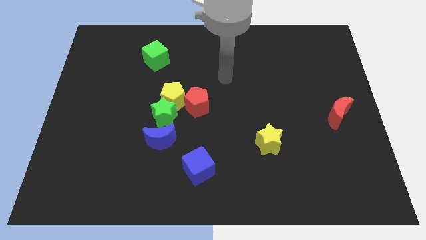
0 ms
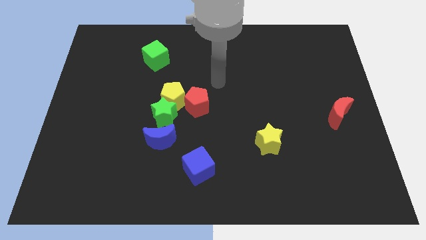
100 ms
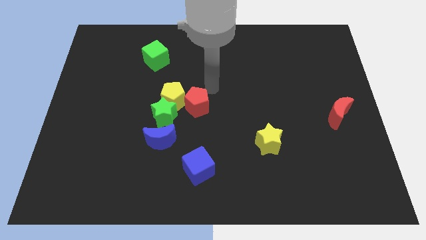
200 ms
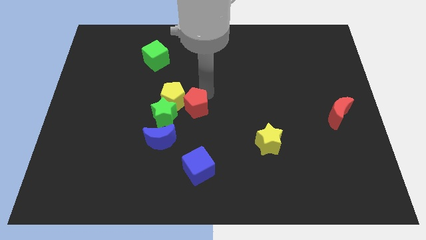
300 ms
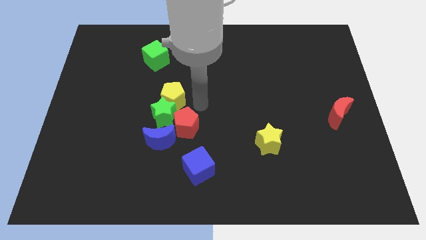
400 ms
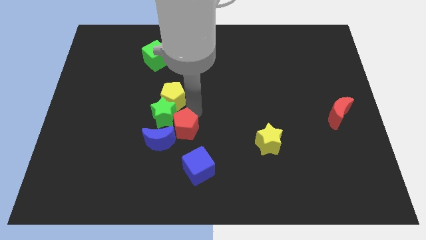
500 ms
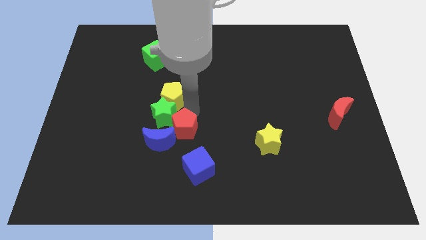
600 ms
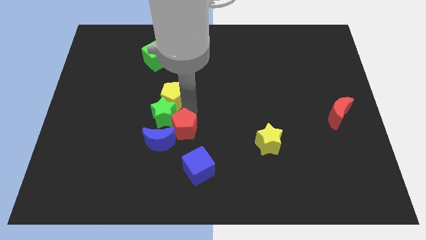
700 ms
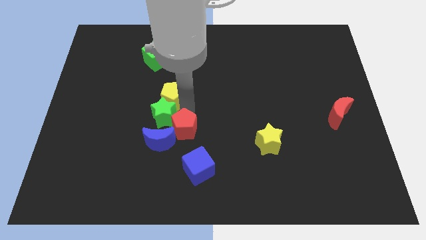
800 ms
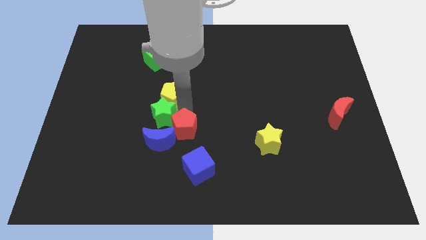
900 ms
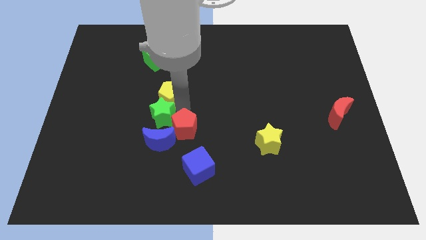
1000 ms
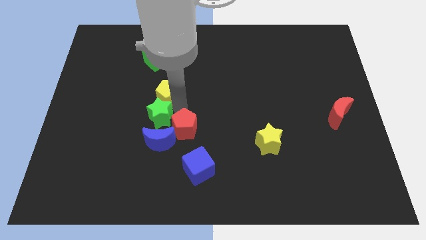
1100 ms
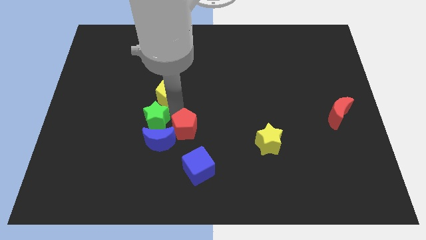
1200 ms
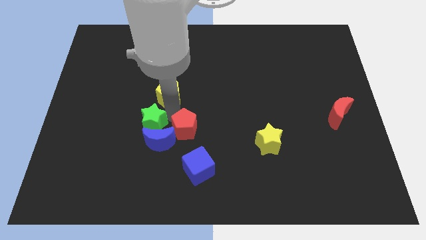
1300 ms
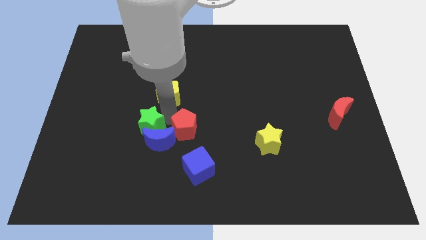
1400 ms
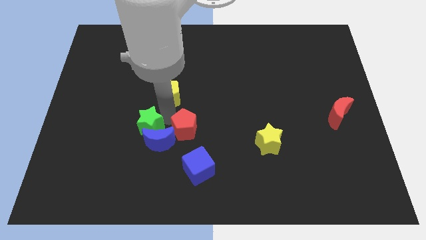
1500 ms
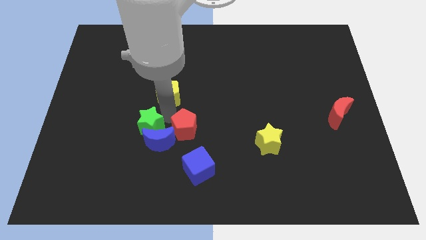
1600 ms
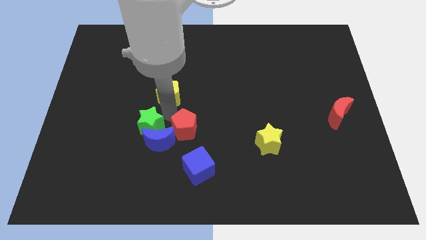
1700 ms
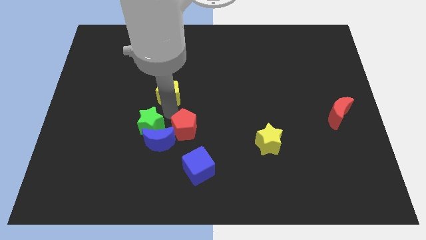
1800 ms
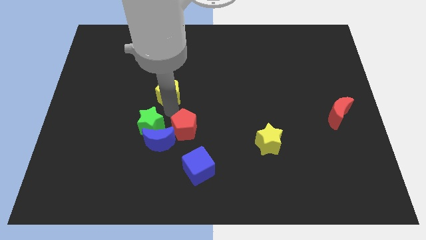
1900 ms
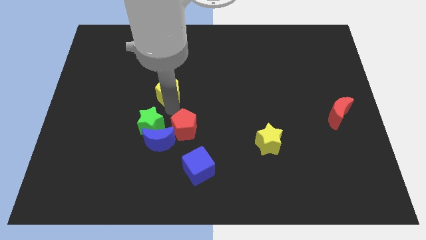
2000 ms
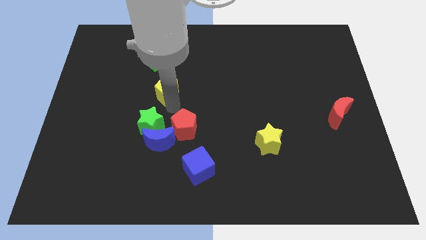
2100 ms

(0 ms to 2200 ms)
pull the yellow pentagon apart from the green star and red pentagon

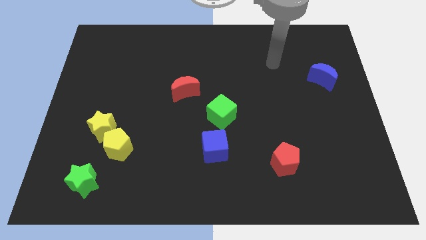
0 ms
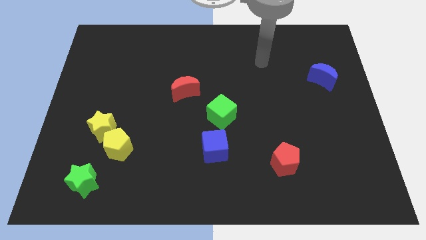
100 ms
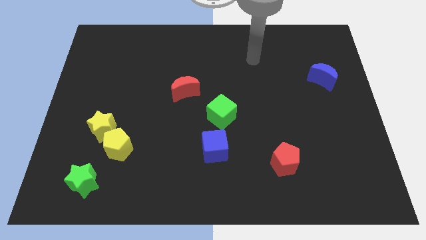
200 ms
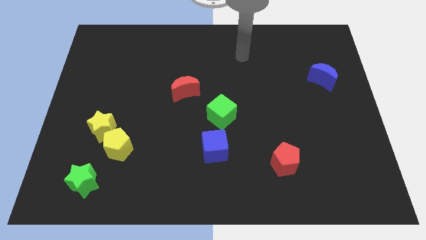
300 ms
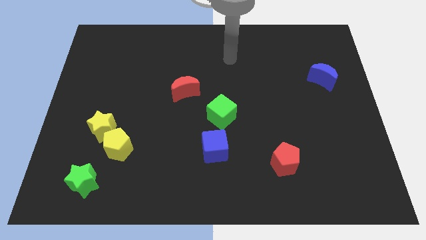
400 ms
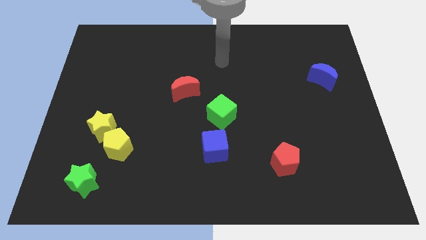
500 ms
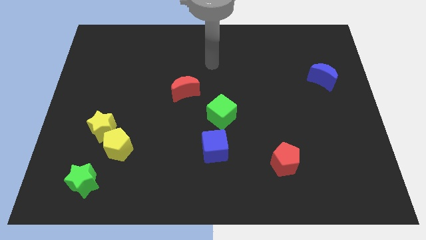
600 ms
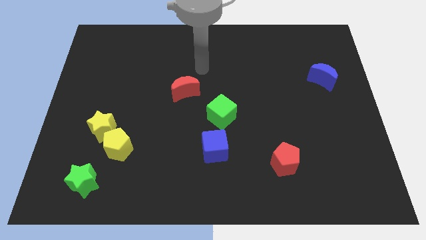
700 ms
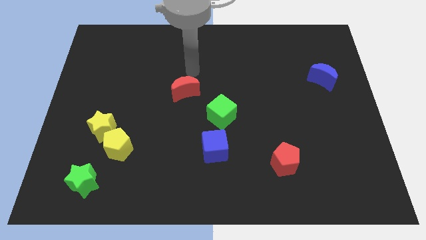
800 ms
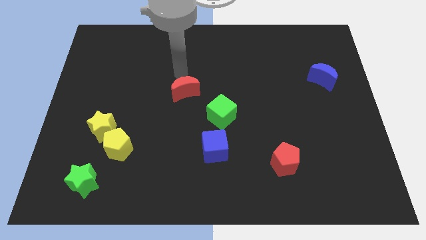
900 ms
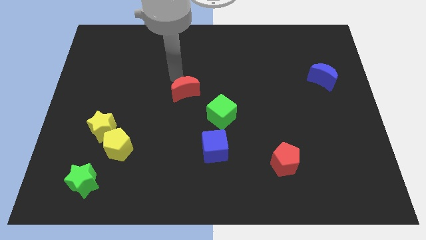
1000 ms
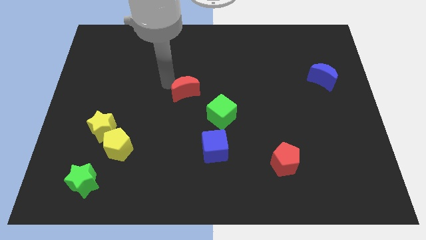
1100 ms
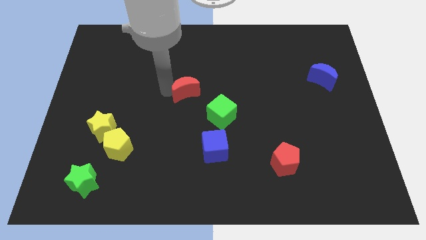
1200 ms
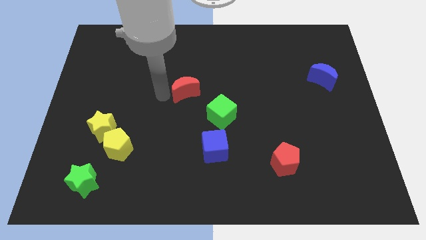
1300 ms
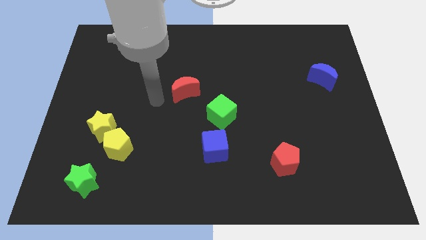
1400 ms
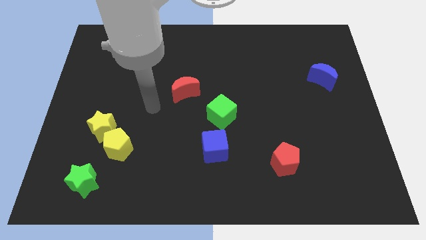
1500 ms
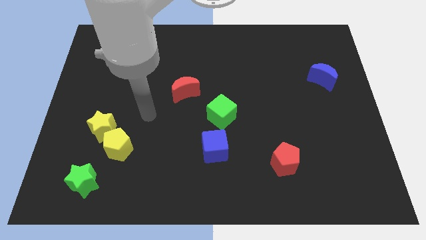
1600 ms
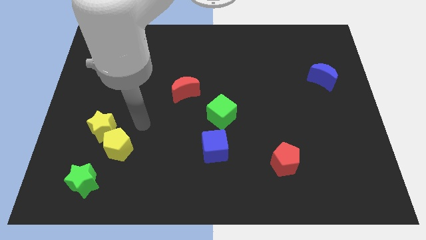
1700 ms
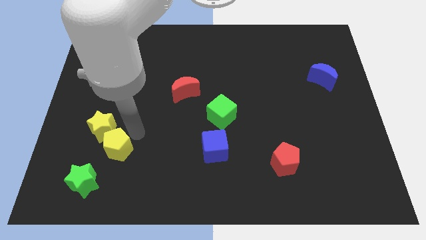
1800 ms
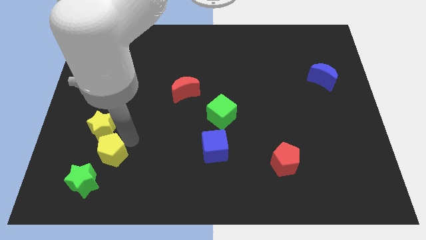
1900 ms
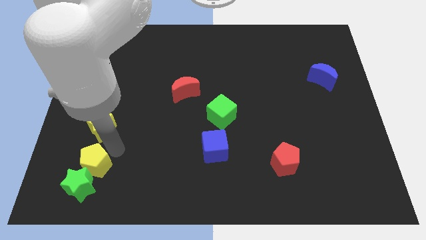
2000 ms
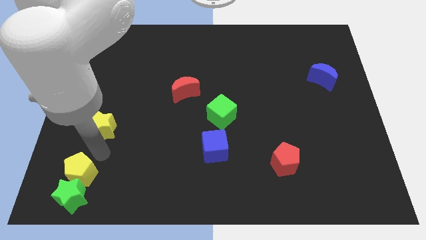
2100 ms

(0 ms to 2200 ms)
separate the yellow star from the yellow pentagon

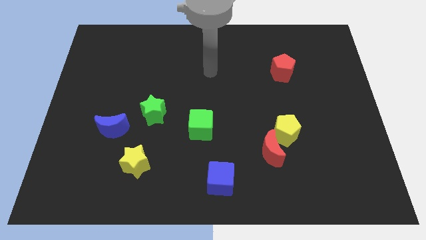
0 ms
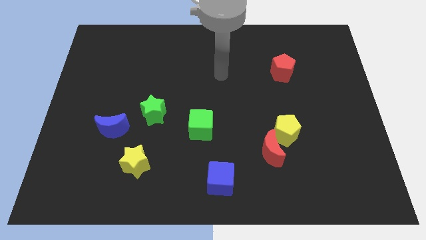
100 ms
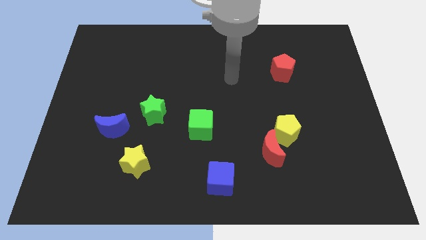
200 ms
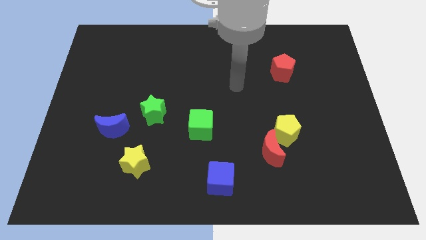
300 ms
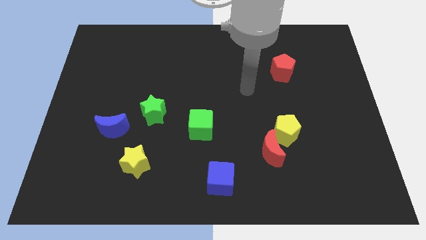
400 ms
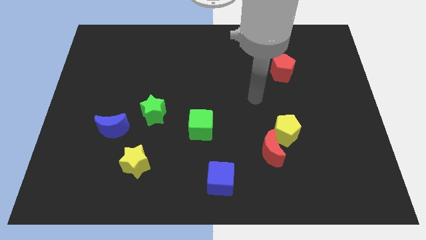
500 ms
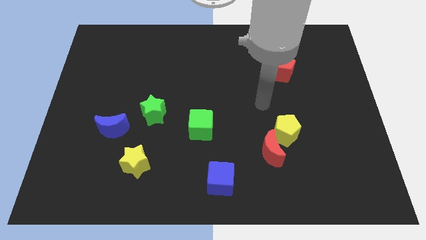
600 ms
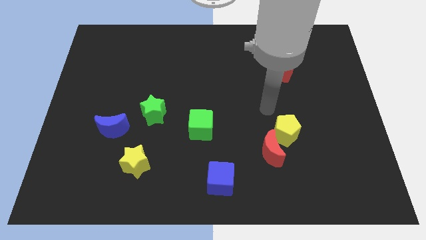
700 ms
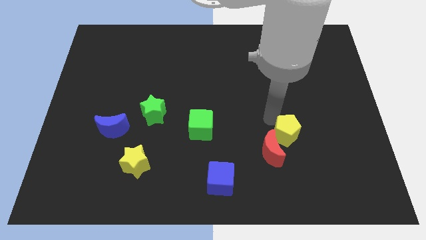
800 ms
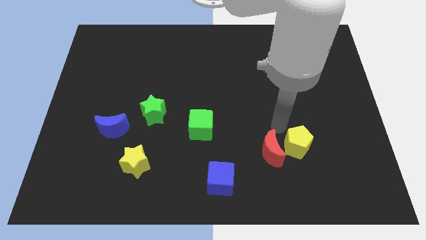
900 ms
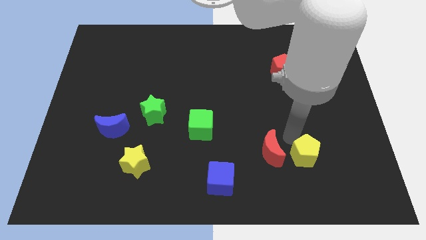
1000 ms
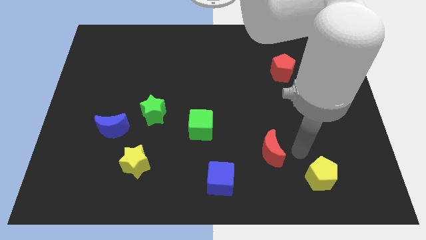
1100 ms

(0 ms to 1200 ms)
pull the red moon apart from the yellow pentagon

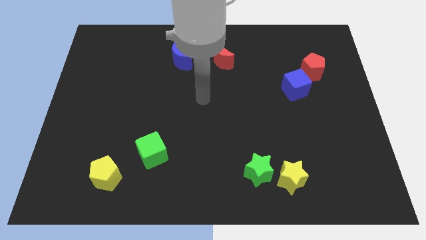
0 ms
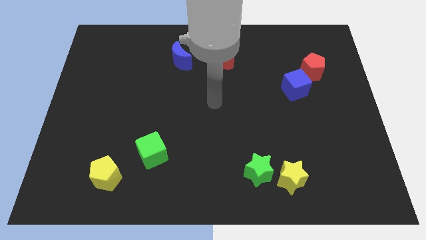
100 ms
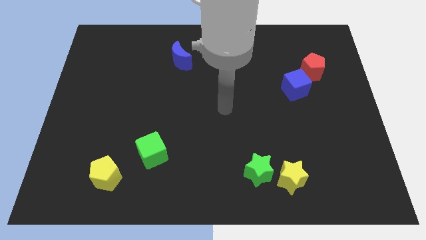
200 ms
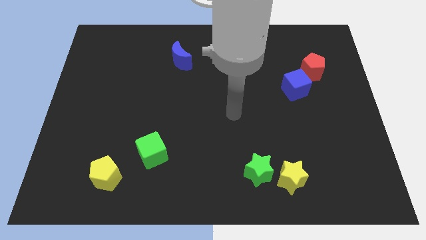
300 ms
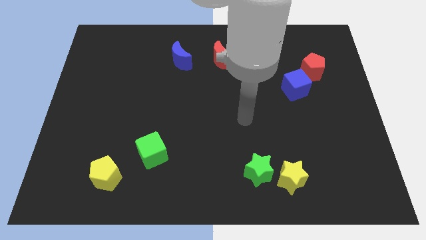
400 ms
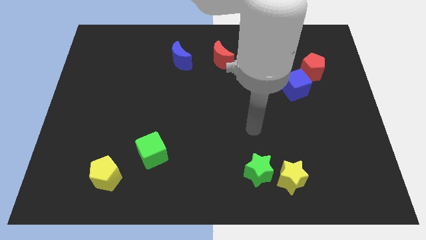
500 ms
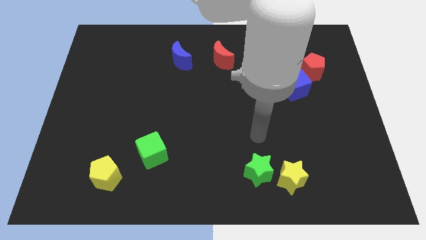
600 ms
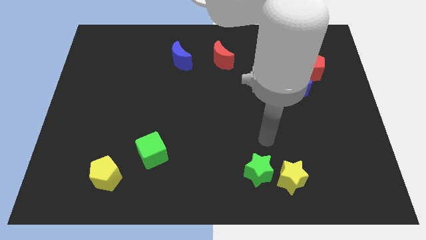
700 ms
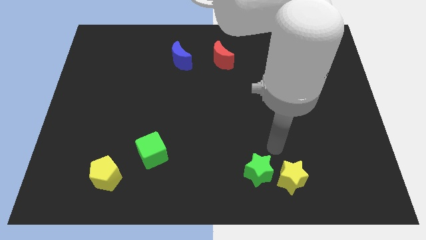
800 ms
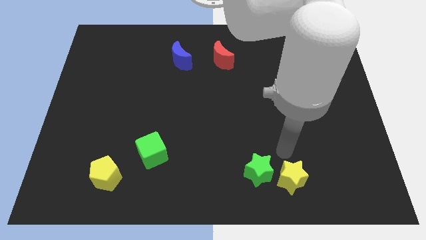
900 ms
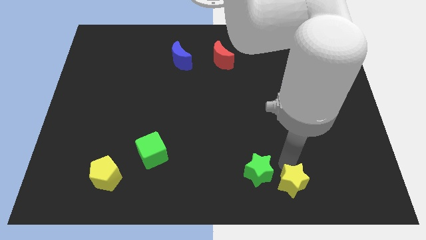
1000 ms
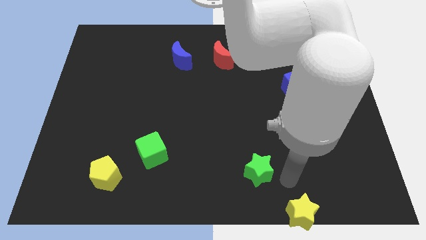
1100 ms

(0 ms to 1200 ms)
separate the green star from the yellow star

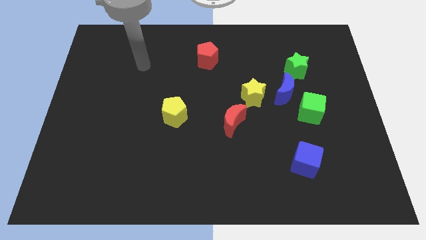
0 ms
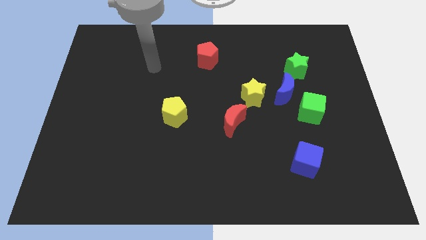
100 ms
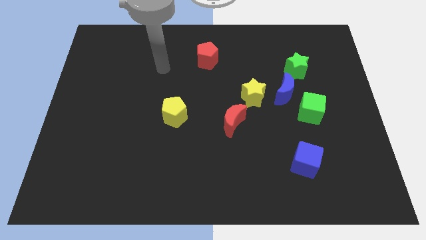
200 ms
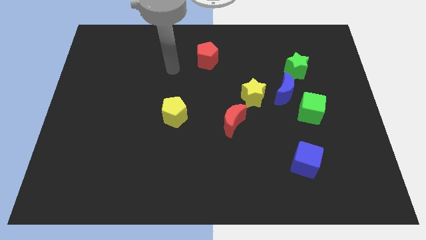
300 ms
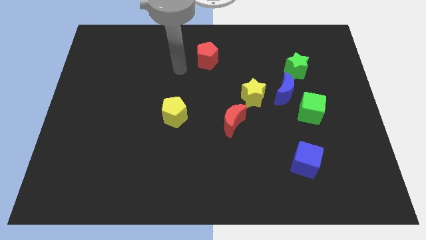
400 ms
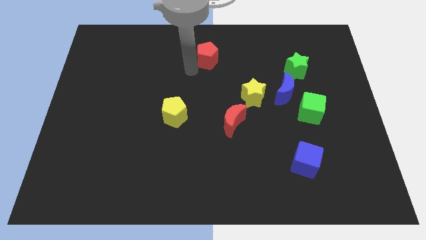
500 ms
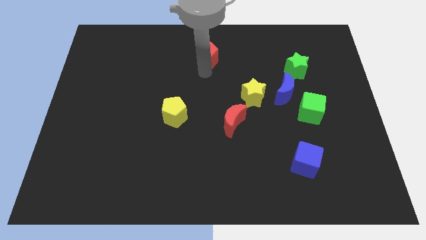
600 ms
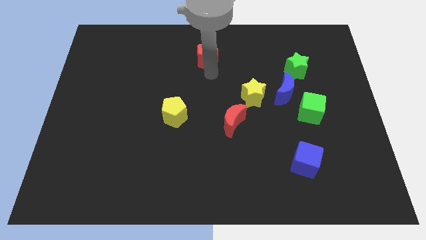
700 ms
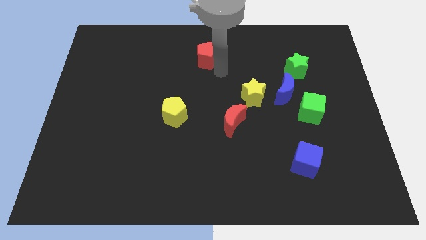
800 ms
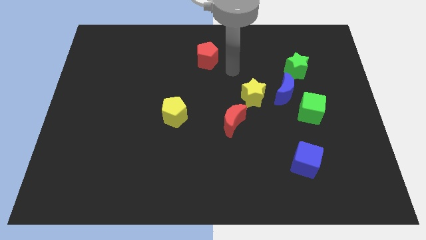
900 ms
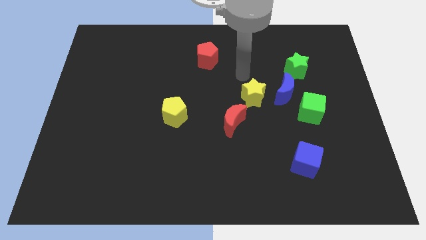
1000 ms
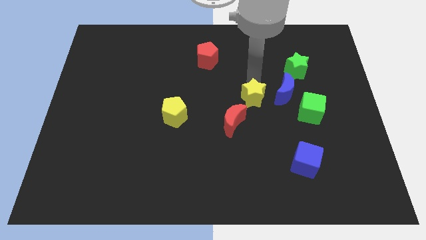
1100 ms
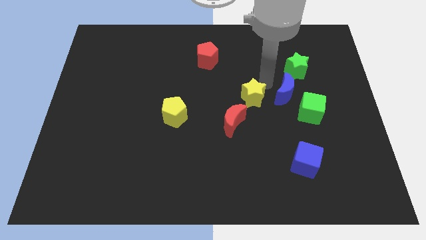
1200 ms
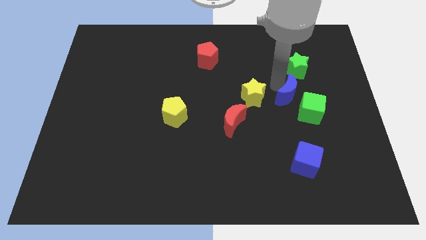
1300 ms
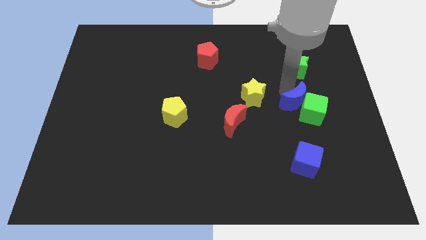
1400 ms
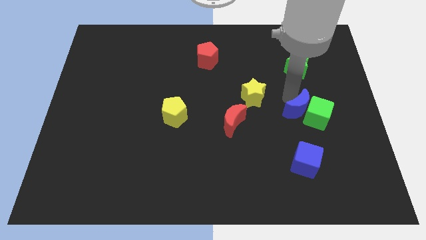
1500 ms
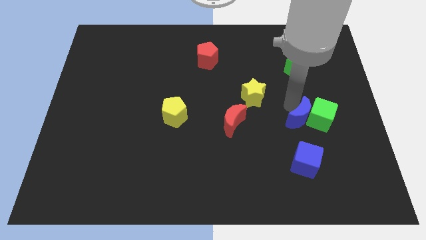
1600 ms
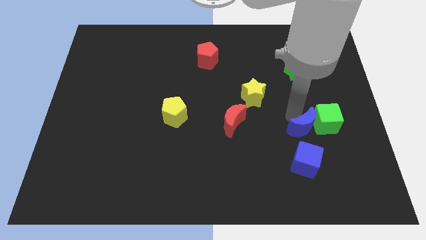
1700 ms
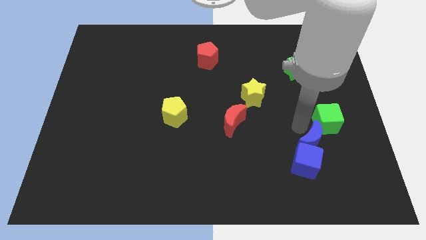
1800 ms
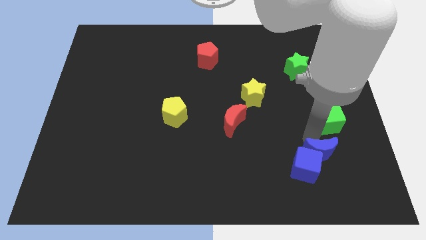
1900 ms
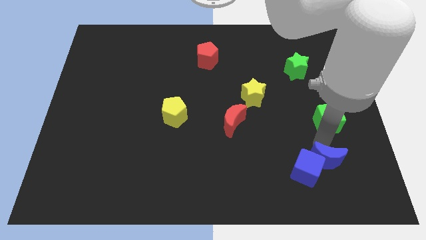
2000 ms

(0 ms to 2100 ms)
separate the green cube from the blue moon

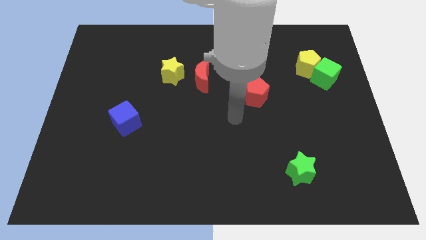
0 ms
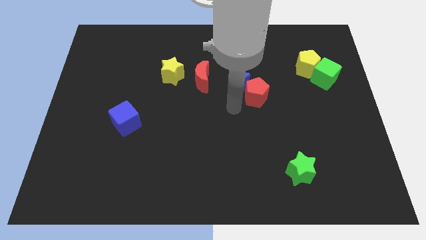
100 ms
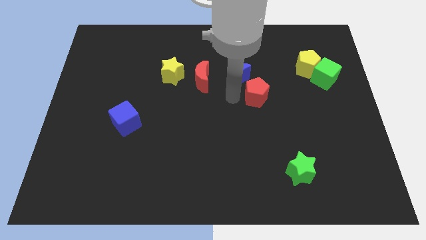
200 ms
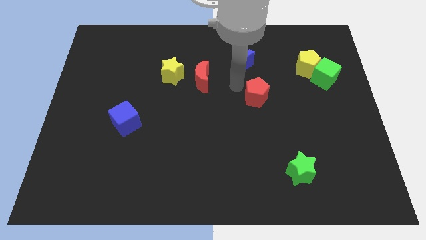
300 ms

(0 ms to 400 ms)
move the red pentagon away from the blue moon
